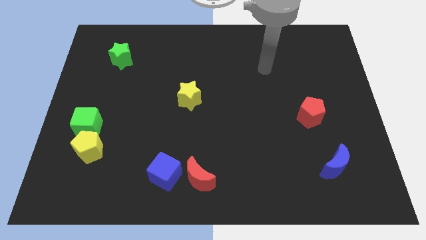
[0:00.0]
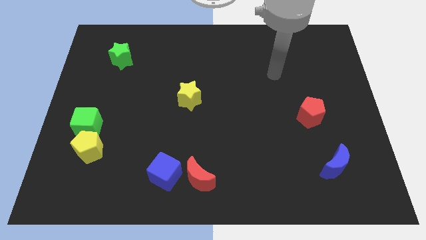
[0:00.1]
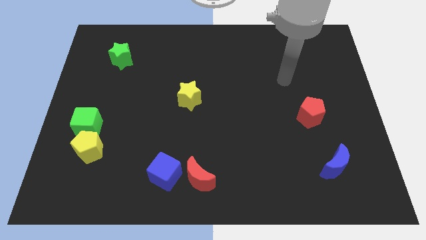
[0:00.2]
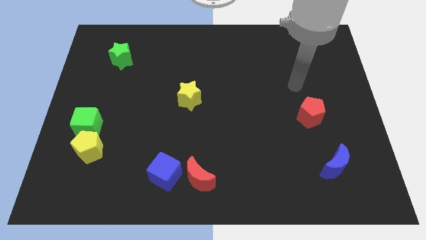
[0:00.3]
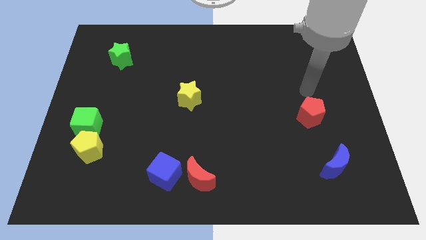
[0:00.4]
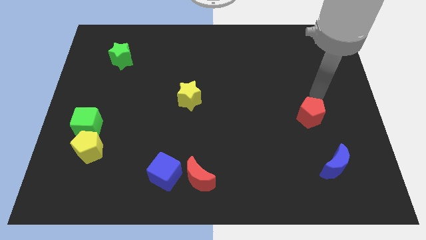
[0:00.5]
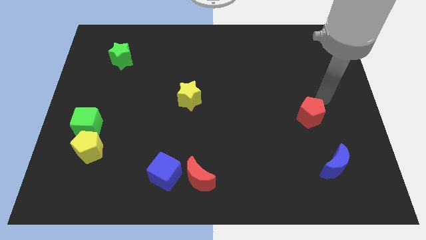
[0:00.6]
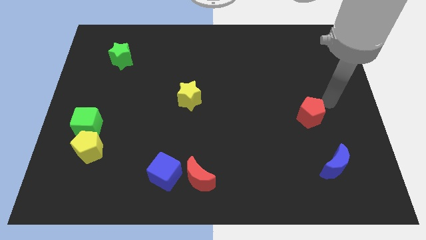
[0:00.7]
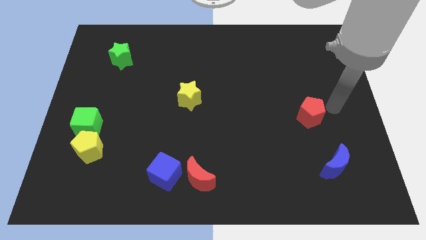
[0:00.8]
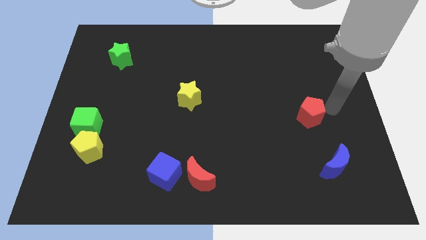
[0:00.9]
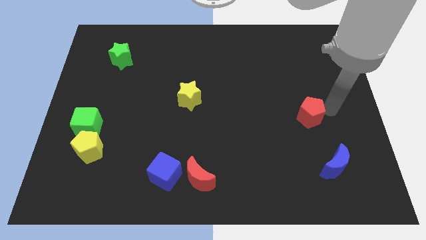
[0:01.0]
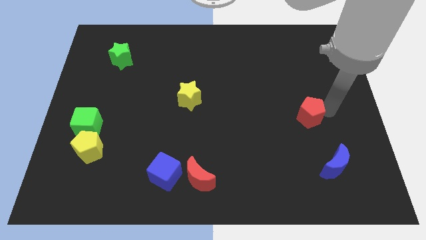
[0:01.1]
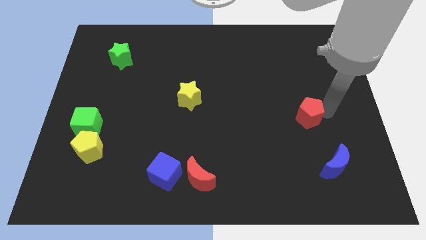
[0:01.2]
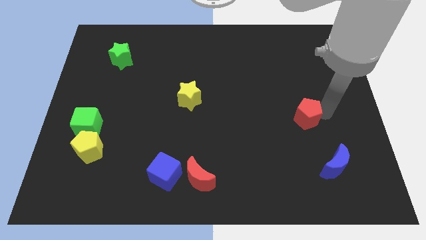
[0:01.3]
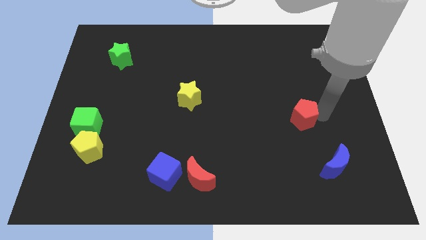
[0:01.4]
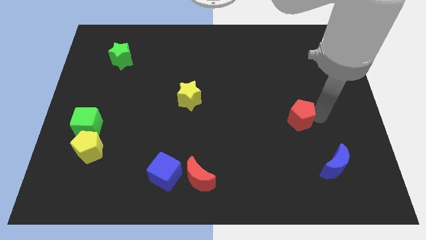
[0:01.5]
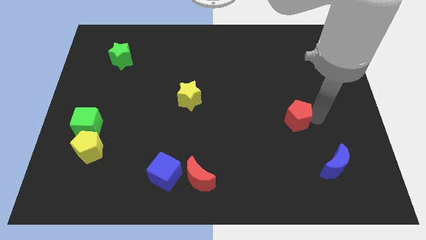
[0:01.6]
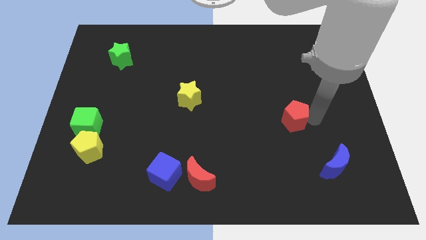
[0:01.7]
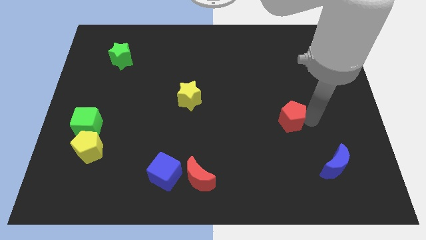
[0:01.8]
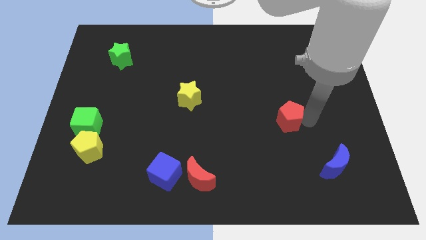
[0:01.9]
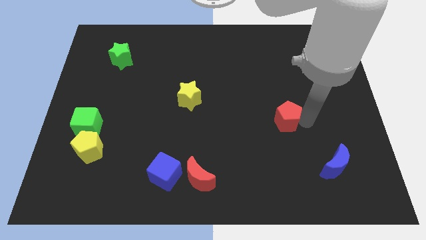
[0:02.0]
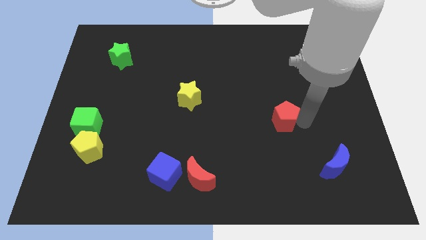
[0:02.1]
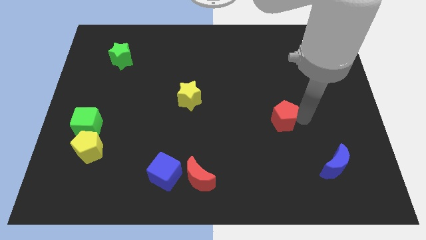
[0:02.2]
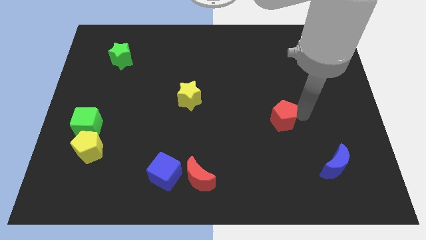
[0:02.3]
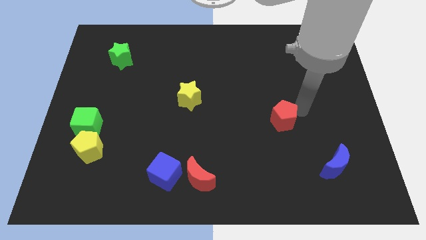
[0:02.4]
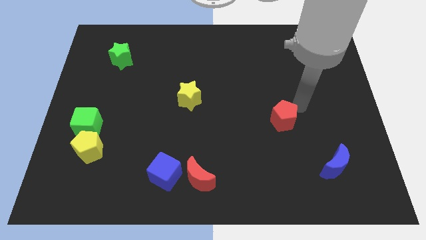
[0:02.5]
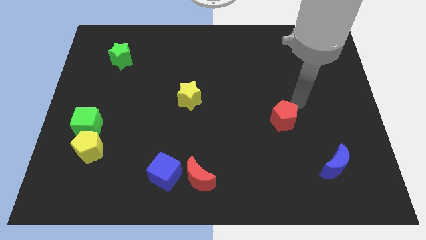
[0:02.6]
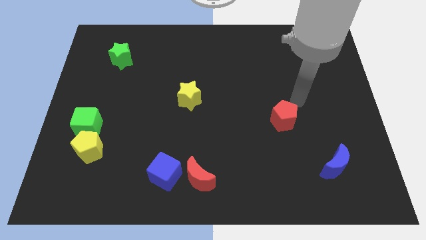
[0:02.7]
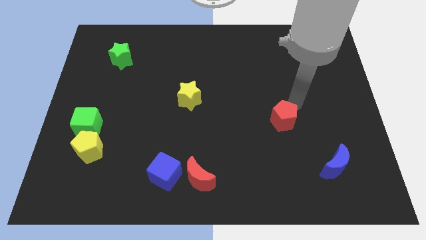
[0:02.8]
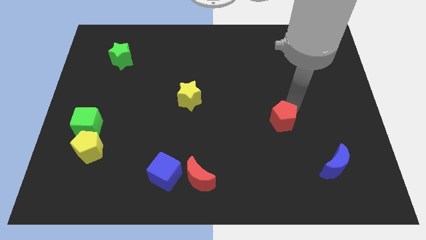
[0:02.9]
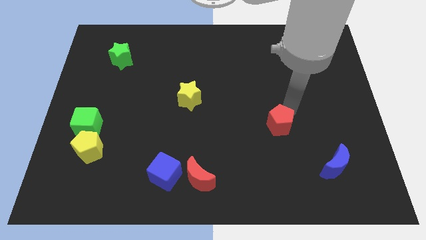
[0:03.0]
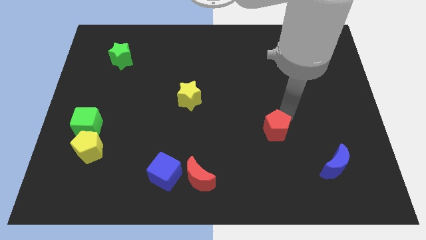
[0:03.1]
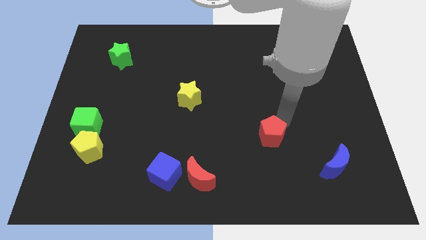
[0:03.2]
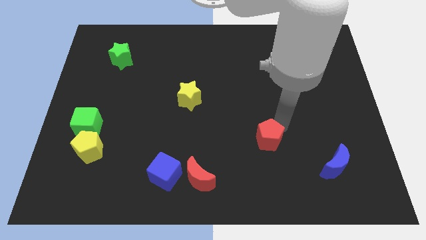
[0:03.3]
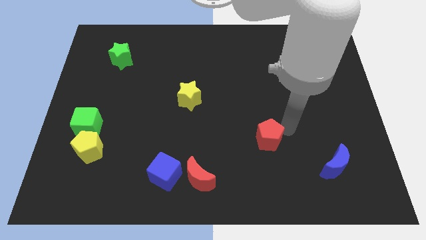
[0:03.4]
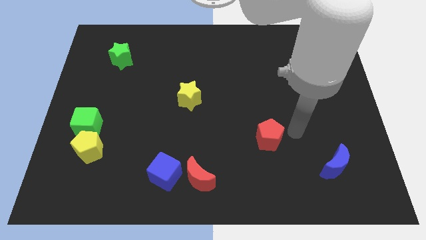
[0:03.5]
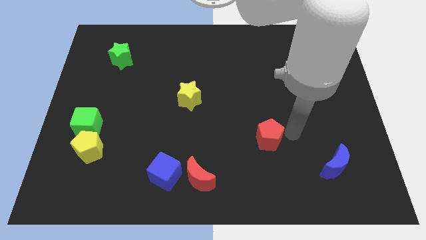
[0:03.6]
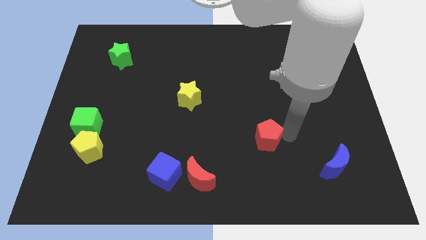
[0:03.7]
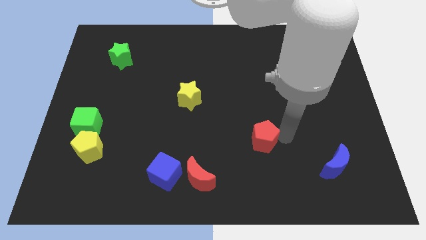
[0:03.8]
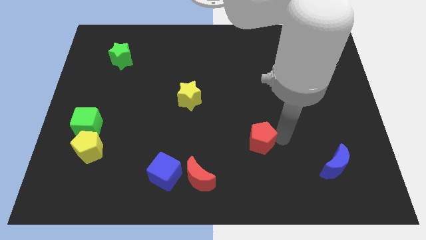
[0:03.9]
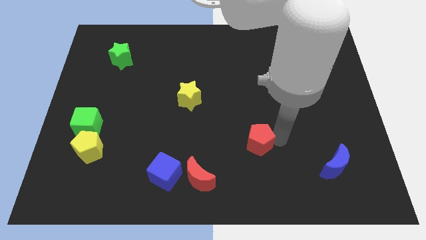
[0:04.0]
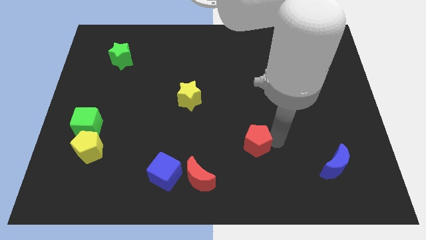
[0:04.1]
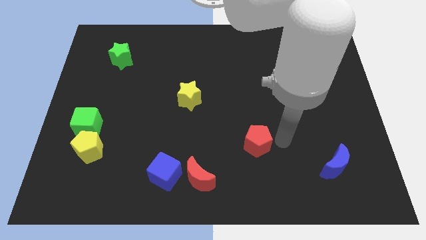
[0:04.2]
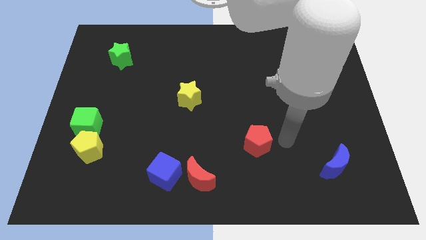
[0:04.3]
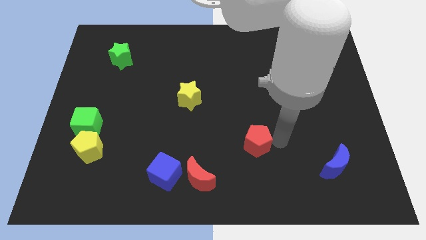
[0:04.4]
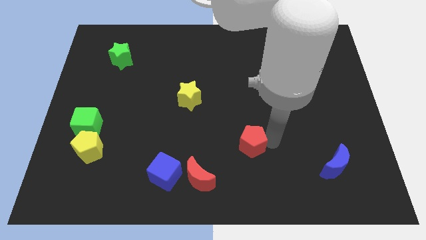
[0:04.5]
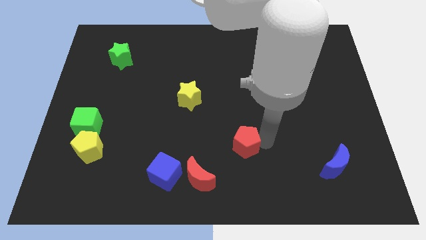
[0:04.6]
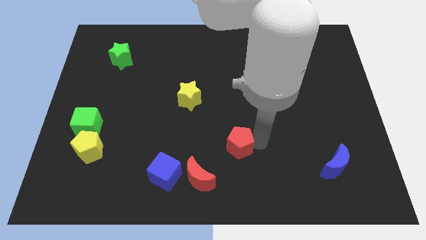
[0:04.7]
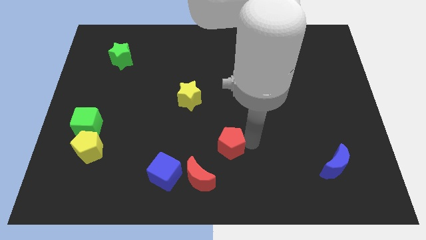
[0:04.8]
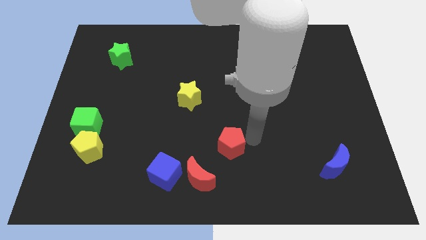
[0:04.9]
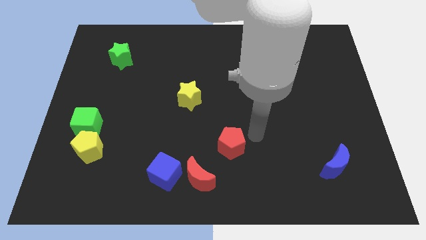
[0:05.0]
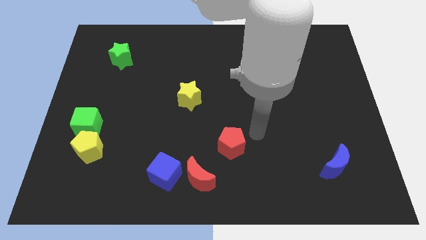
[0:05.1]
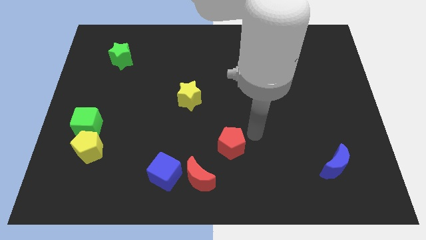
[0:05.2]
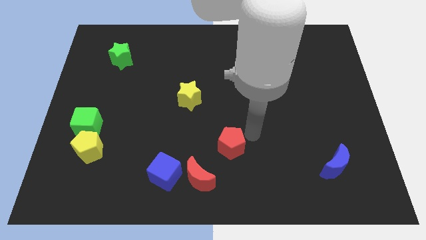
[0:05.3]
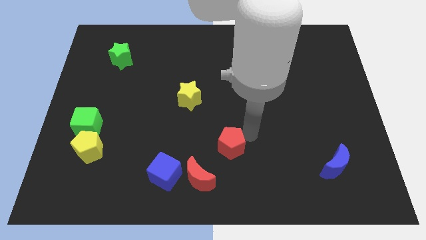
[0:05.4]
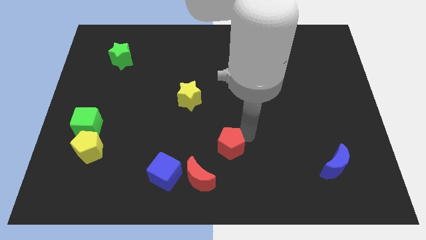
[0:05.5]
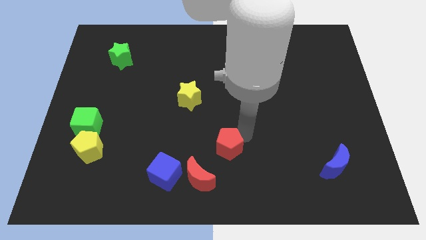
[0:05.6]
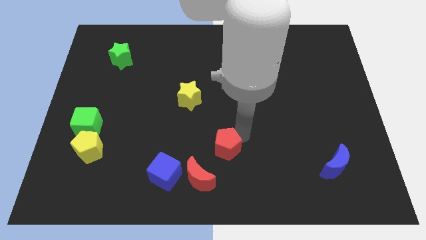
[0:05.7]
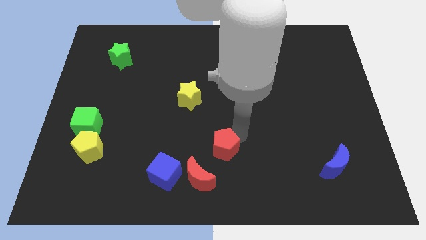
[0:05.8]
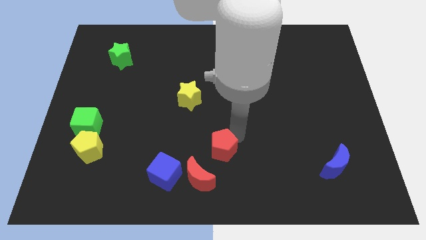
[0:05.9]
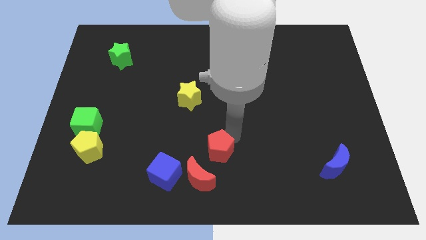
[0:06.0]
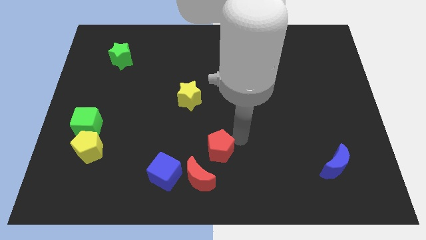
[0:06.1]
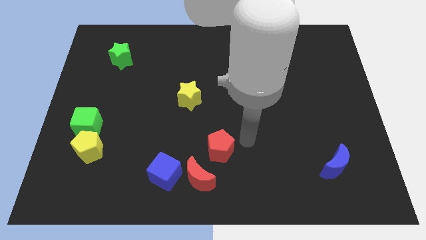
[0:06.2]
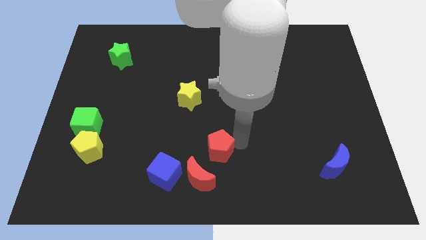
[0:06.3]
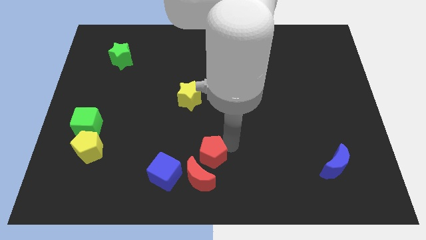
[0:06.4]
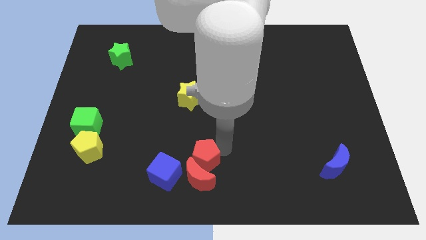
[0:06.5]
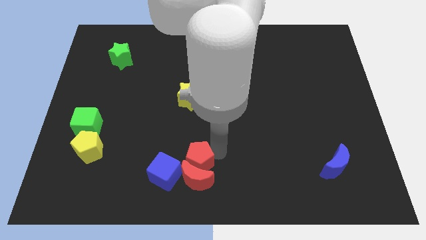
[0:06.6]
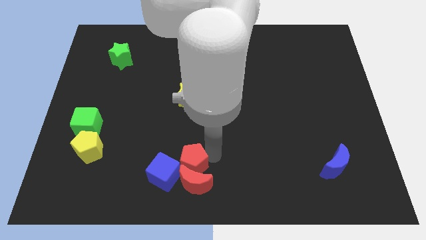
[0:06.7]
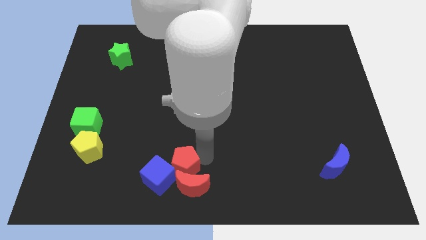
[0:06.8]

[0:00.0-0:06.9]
move the red pentagon to the blue cube

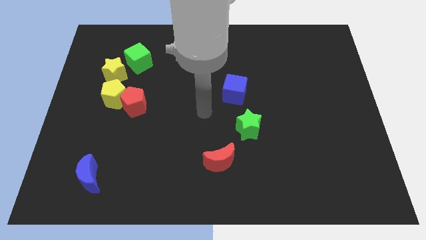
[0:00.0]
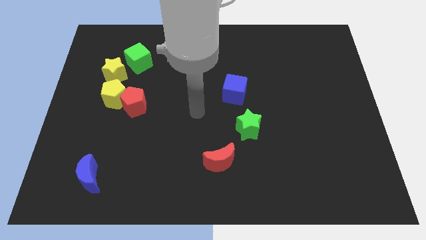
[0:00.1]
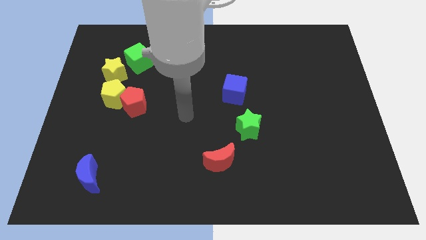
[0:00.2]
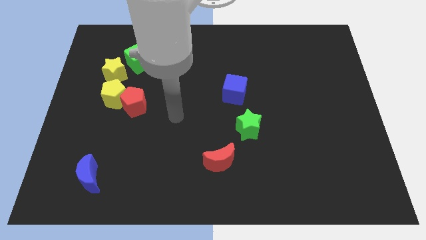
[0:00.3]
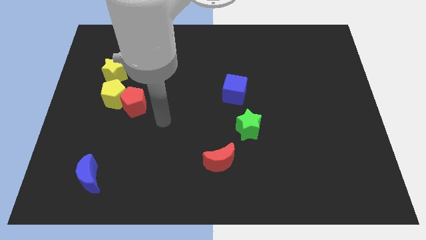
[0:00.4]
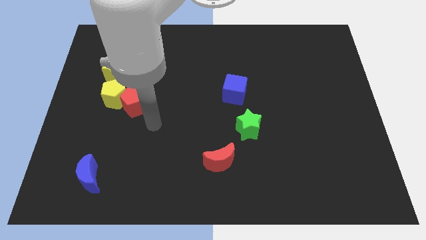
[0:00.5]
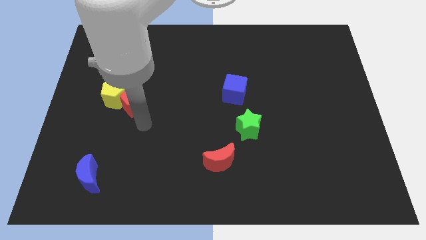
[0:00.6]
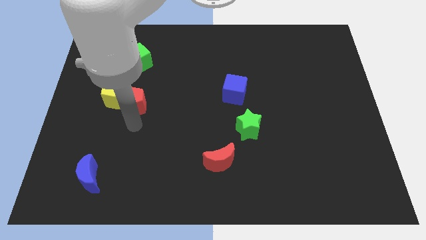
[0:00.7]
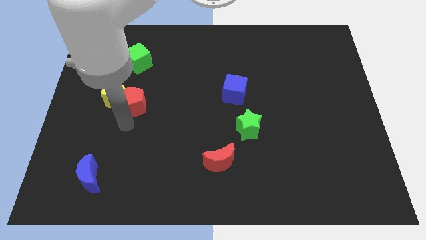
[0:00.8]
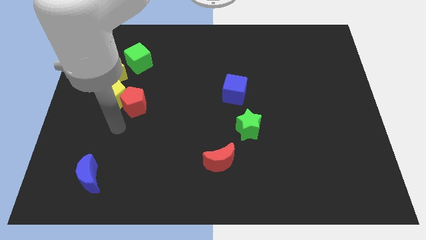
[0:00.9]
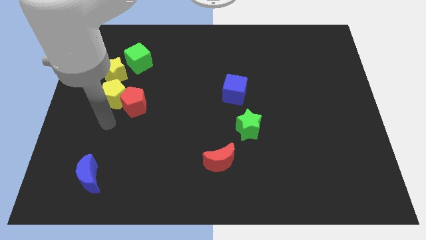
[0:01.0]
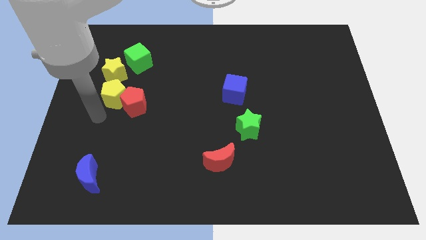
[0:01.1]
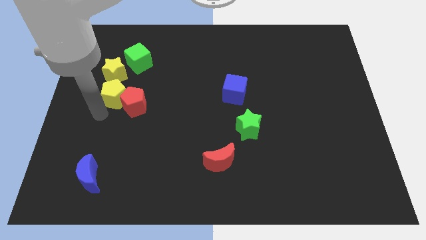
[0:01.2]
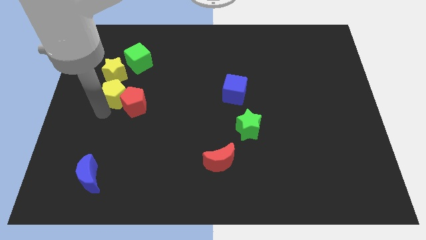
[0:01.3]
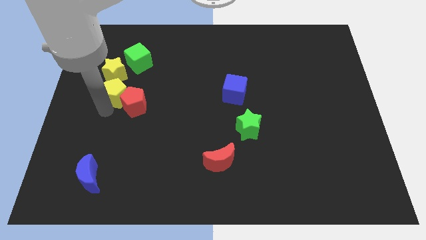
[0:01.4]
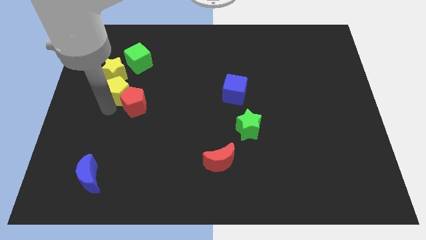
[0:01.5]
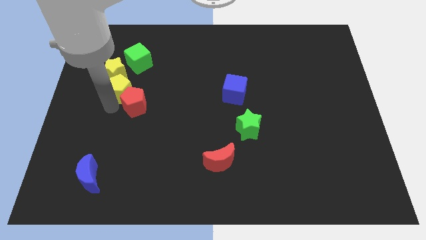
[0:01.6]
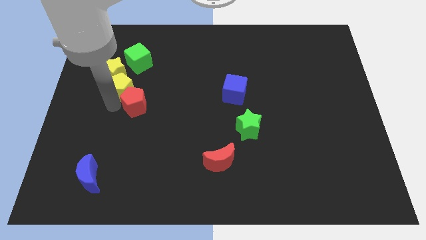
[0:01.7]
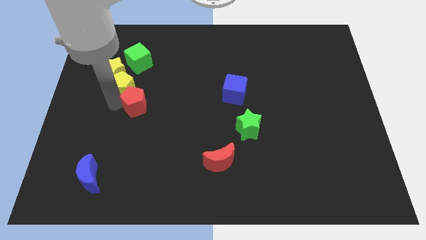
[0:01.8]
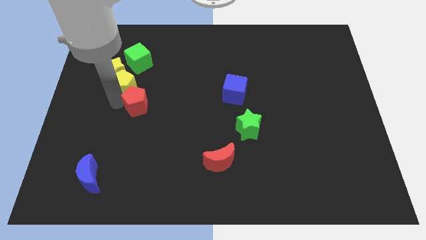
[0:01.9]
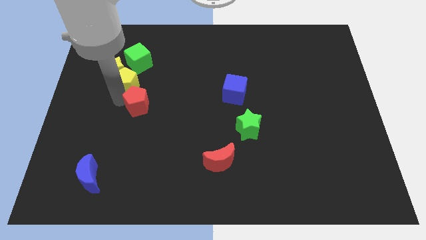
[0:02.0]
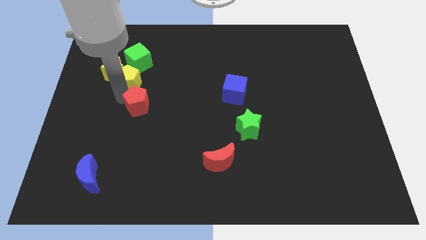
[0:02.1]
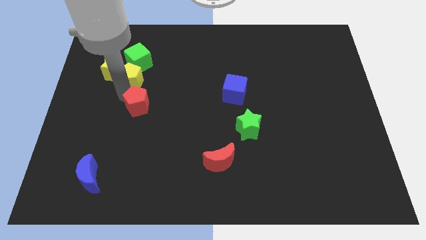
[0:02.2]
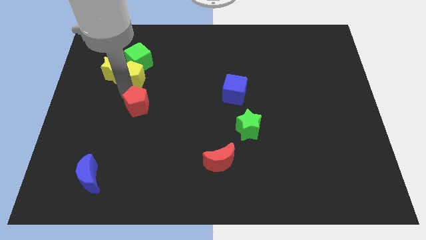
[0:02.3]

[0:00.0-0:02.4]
push the yellow pentagon to the green cube
